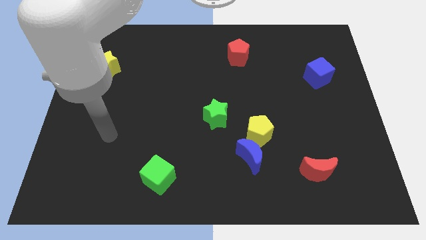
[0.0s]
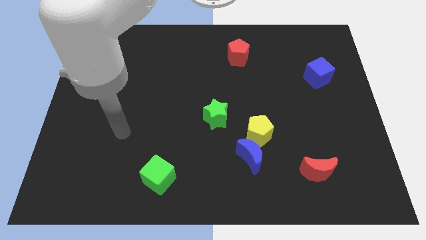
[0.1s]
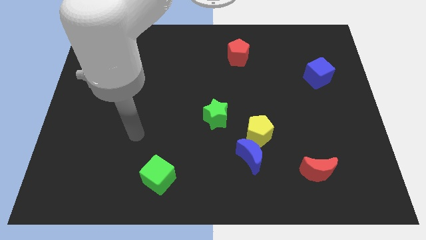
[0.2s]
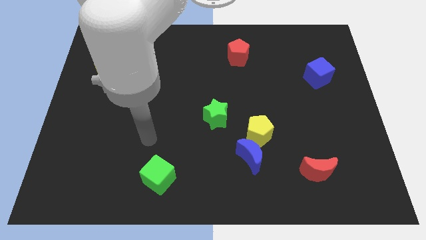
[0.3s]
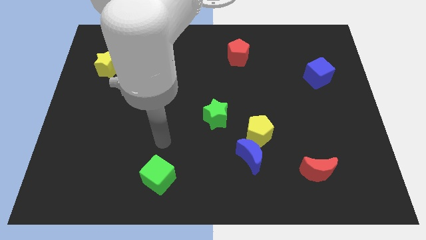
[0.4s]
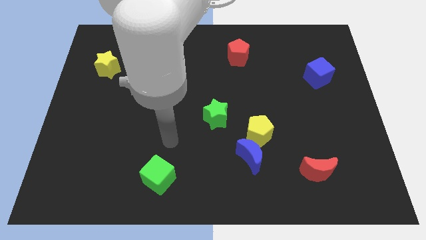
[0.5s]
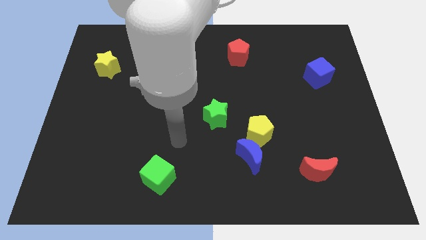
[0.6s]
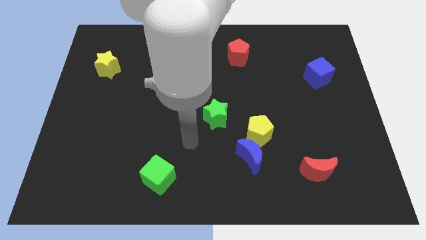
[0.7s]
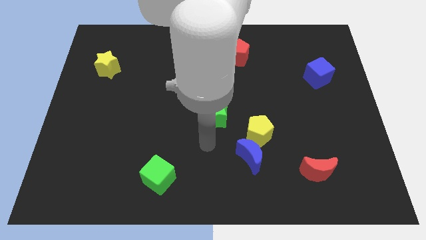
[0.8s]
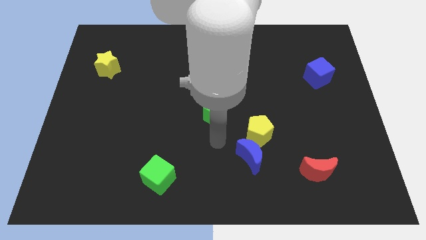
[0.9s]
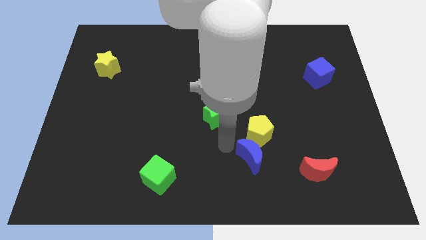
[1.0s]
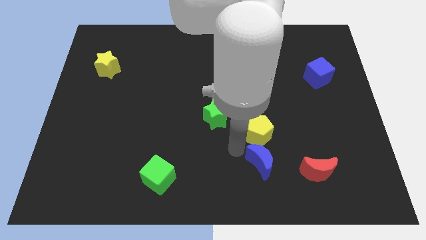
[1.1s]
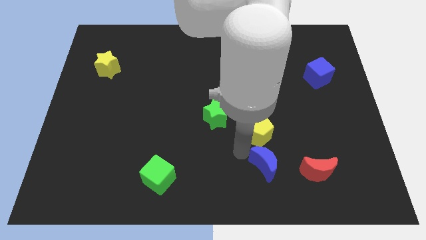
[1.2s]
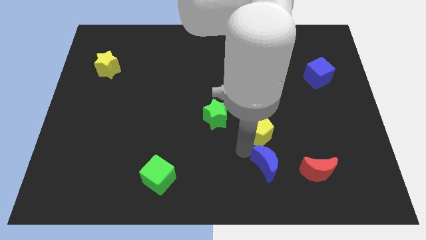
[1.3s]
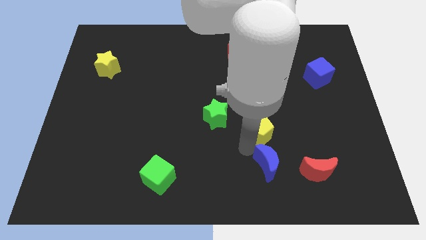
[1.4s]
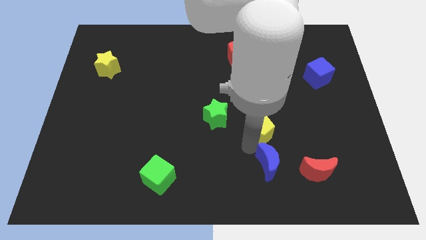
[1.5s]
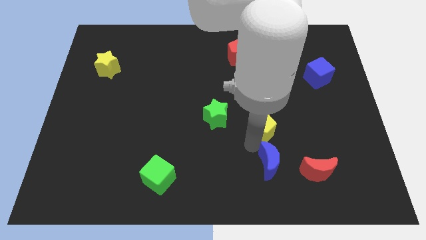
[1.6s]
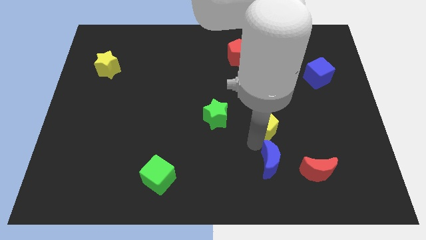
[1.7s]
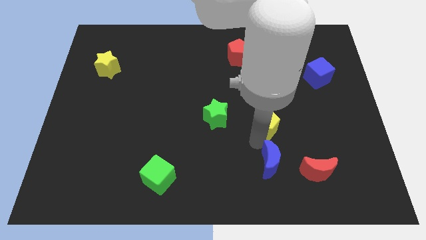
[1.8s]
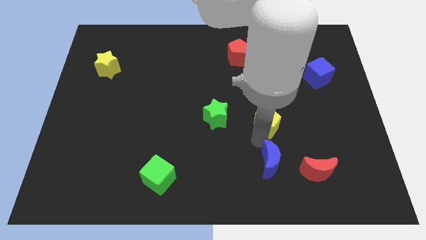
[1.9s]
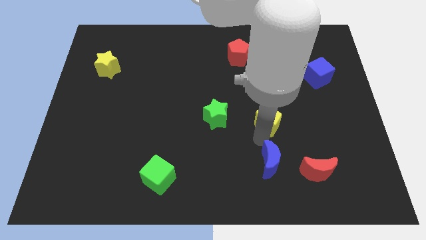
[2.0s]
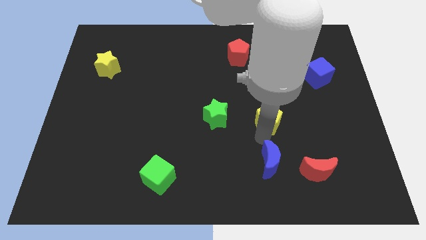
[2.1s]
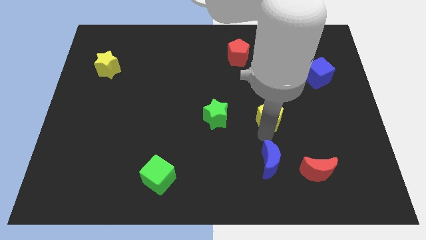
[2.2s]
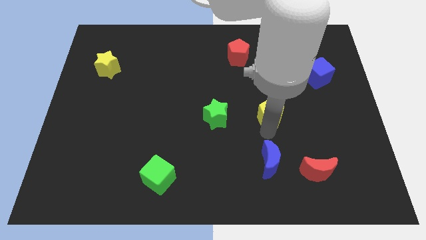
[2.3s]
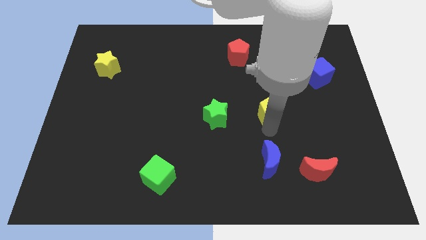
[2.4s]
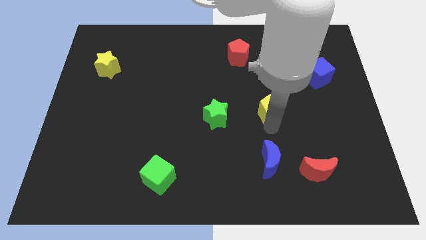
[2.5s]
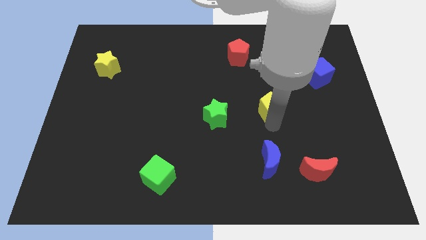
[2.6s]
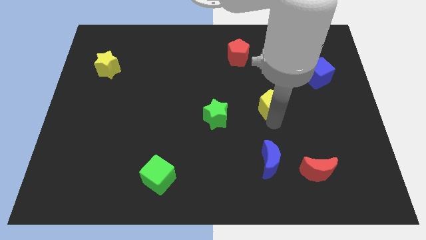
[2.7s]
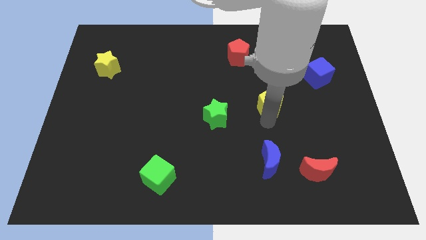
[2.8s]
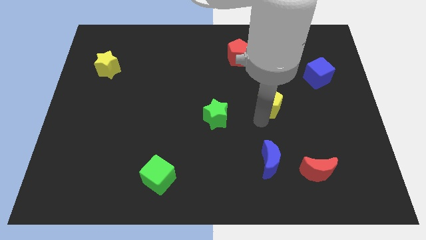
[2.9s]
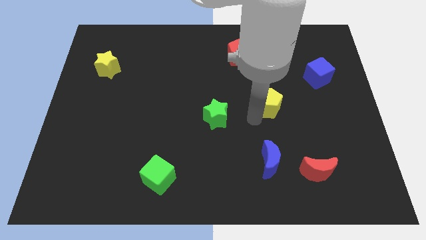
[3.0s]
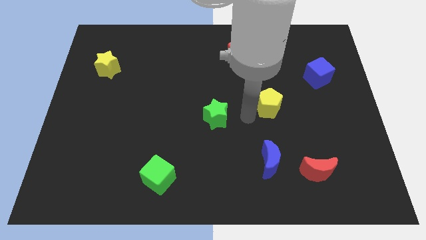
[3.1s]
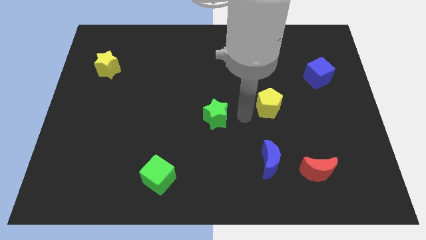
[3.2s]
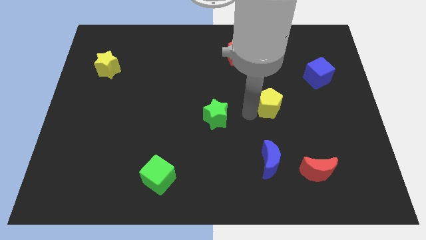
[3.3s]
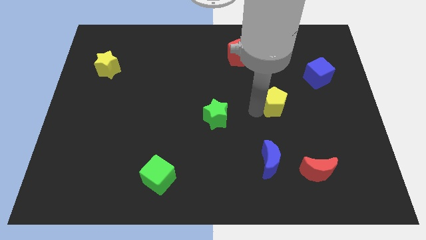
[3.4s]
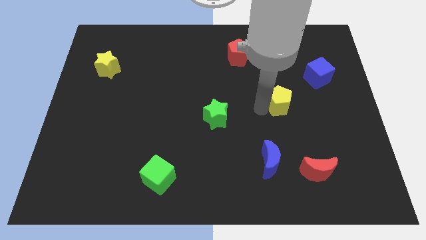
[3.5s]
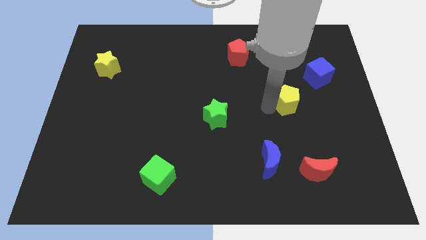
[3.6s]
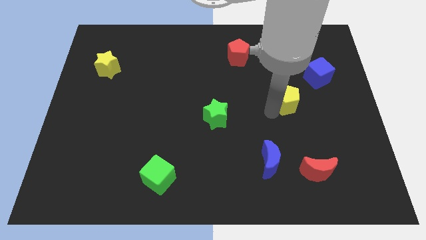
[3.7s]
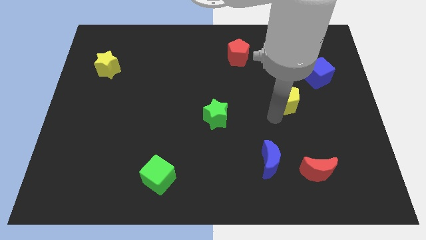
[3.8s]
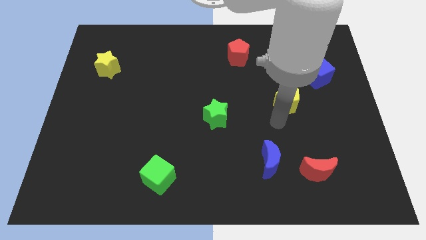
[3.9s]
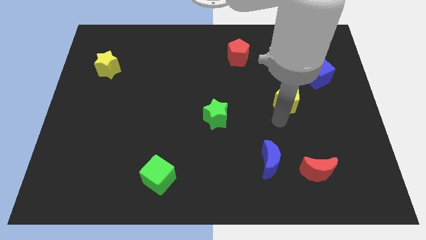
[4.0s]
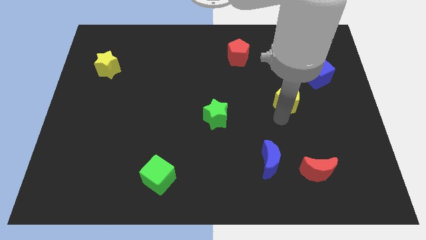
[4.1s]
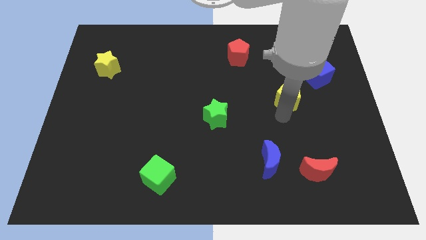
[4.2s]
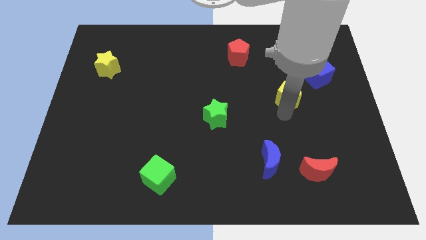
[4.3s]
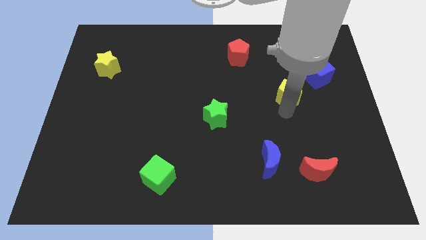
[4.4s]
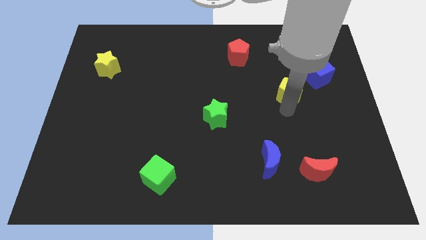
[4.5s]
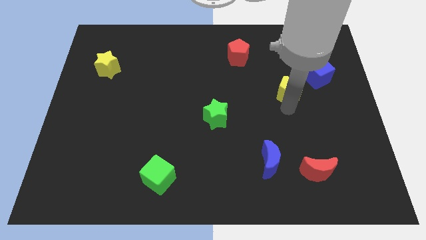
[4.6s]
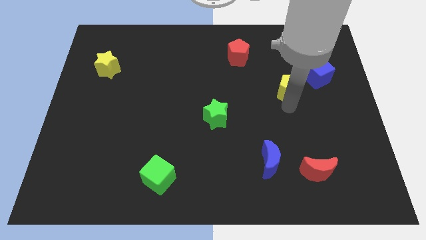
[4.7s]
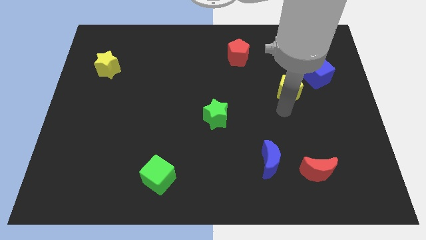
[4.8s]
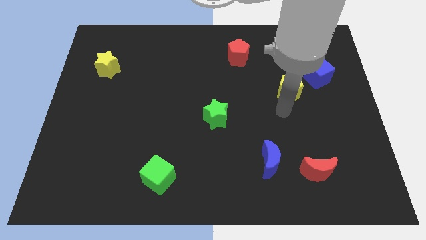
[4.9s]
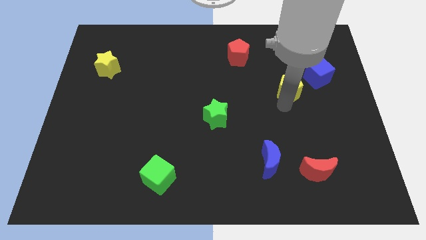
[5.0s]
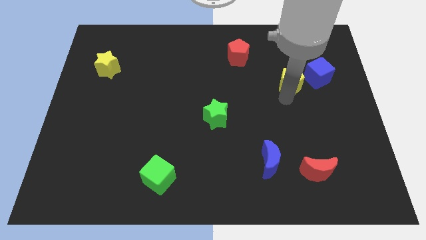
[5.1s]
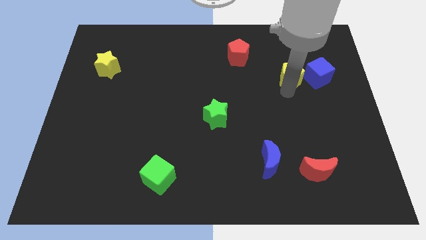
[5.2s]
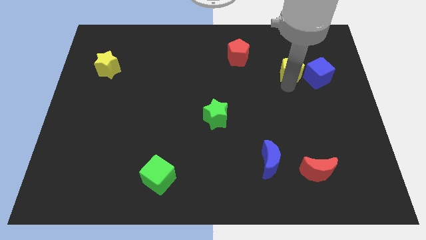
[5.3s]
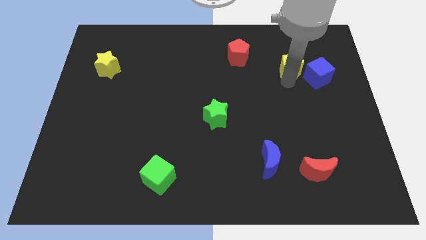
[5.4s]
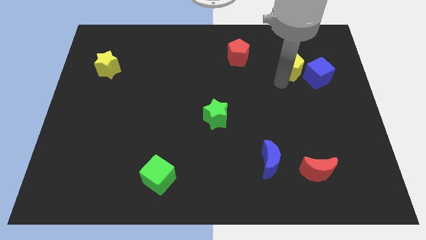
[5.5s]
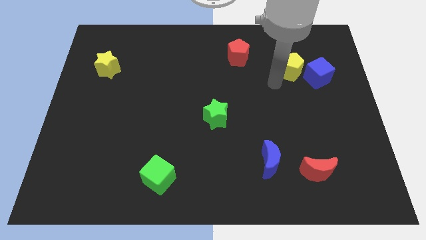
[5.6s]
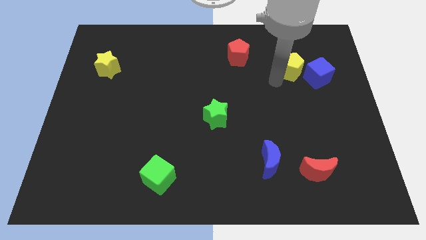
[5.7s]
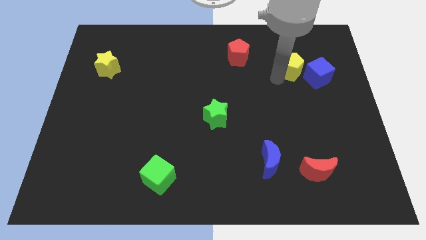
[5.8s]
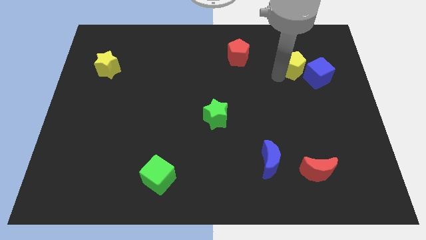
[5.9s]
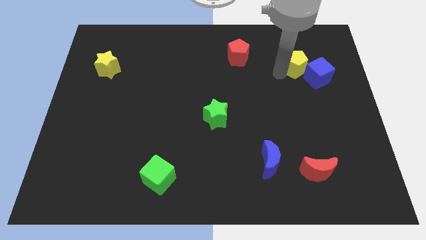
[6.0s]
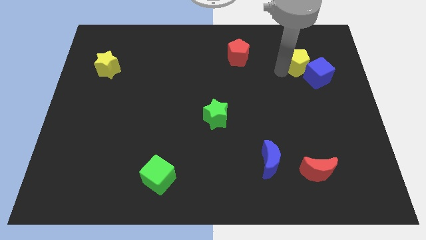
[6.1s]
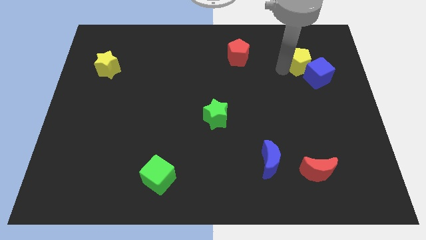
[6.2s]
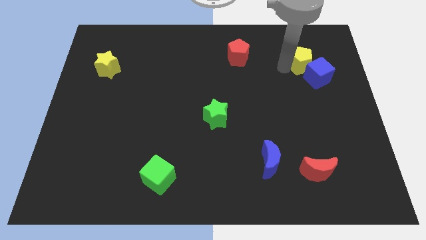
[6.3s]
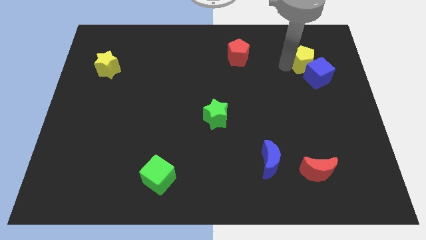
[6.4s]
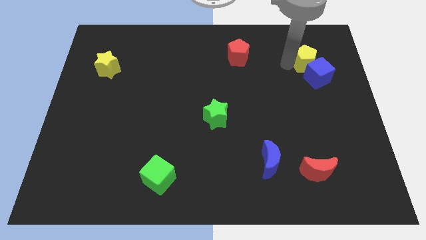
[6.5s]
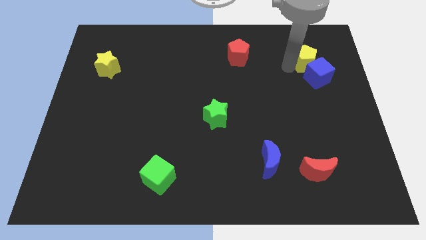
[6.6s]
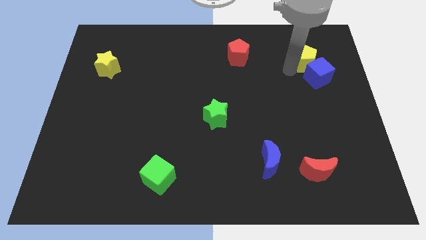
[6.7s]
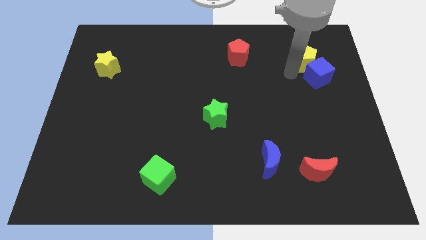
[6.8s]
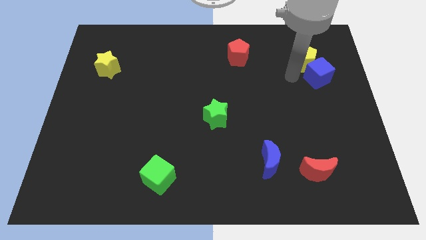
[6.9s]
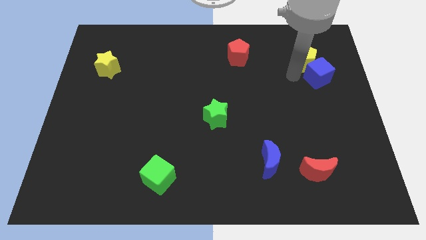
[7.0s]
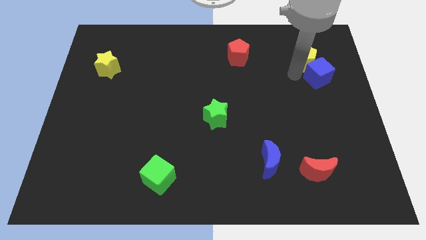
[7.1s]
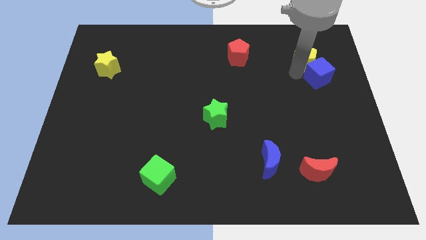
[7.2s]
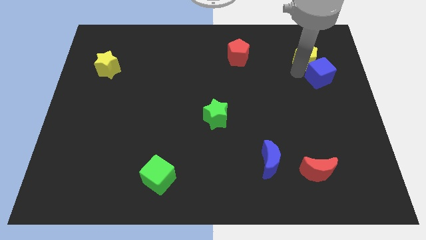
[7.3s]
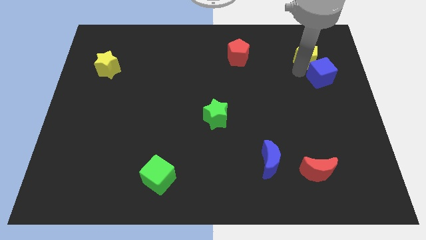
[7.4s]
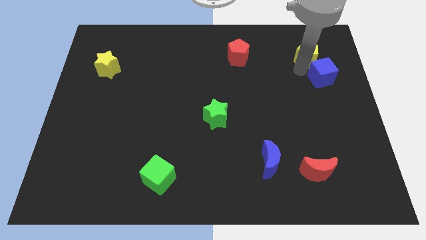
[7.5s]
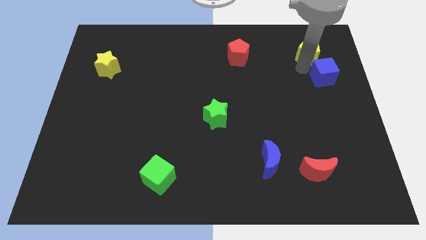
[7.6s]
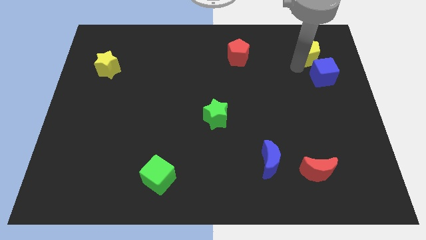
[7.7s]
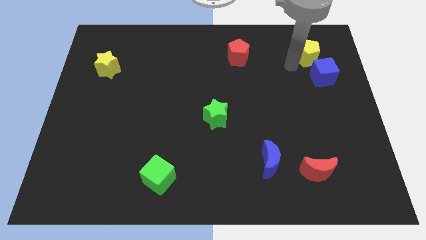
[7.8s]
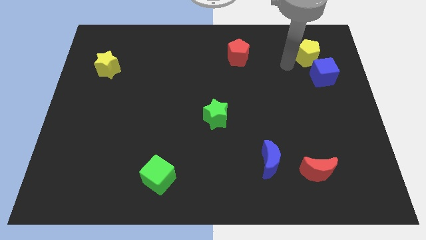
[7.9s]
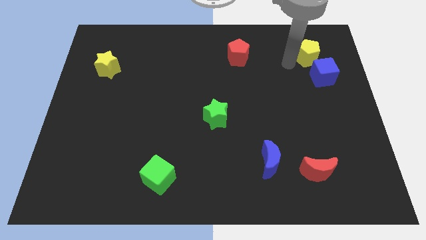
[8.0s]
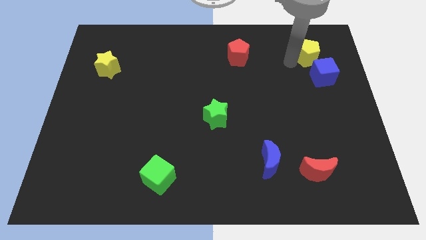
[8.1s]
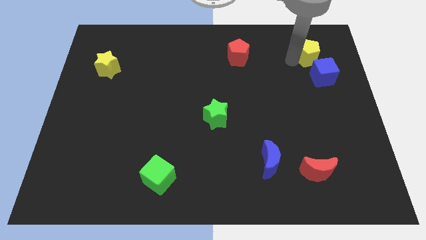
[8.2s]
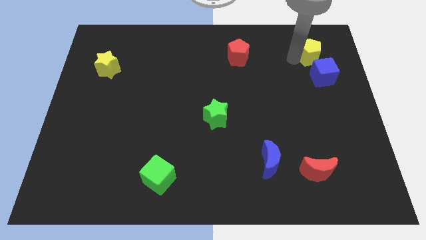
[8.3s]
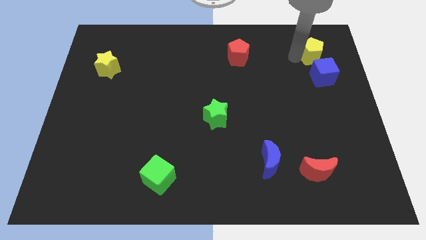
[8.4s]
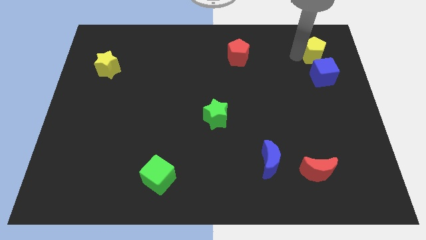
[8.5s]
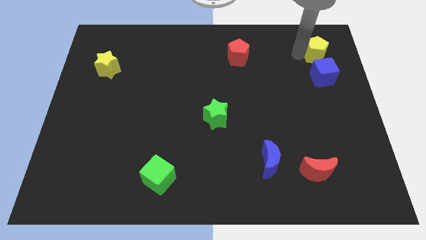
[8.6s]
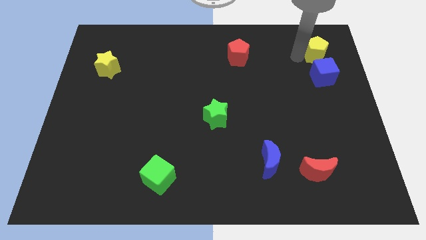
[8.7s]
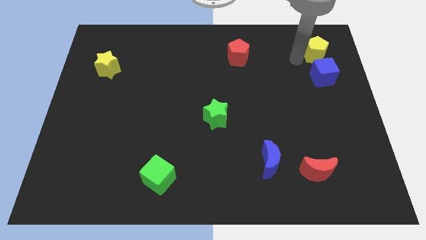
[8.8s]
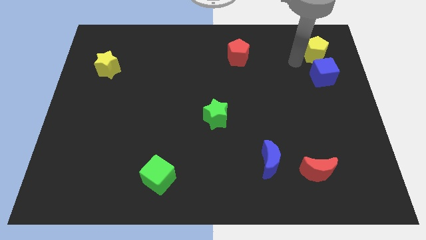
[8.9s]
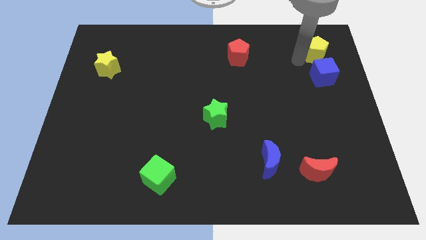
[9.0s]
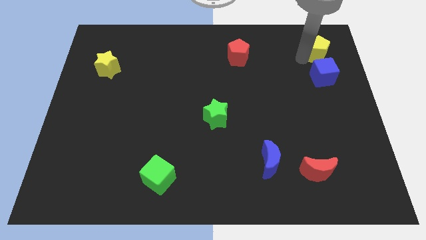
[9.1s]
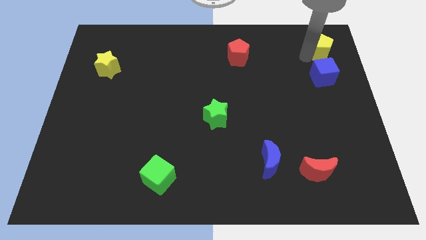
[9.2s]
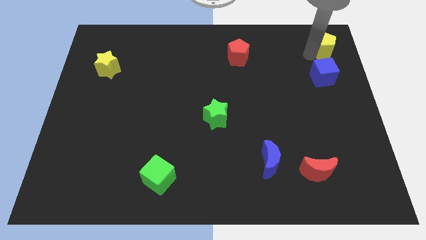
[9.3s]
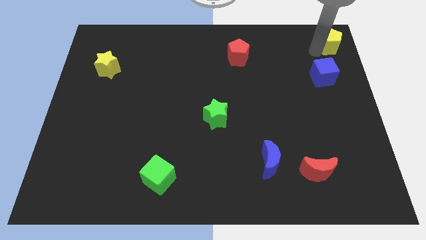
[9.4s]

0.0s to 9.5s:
put the yellow pentagon to the upper right corner
